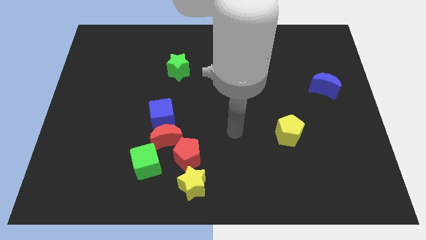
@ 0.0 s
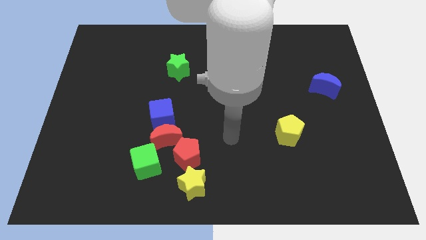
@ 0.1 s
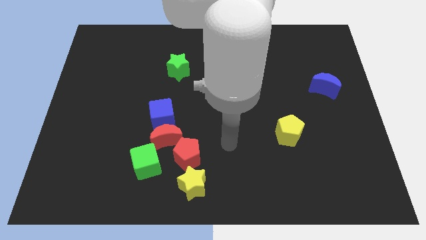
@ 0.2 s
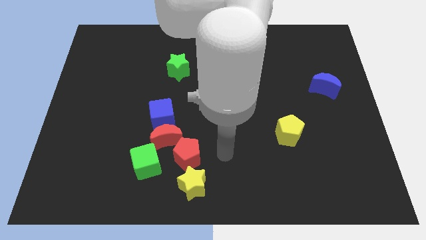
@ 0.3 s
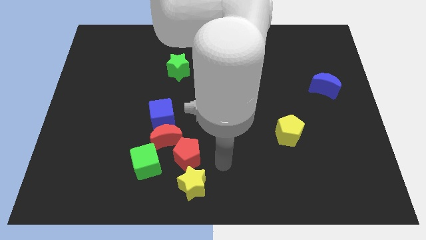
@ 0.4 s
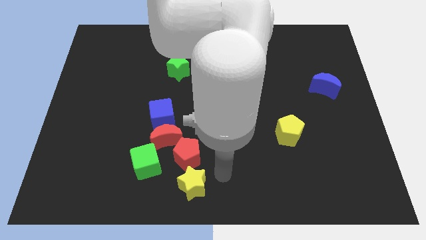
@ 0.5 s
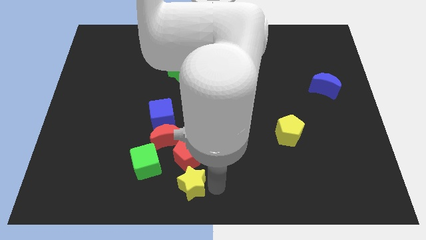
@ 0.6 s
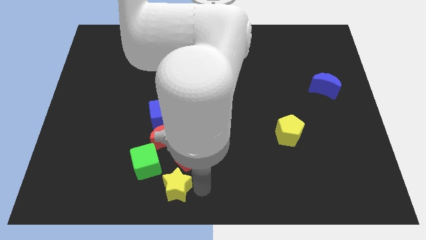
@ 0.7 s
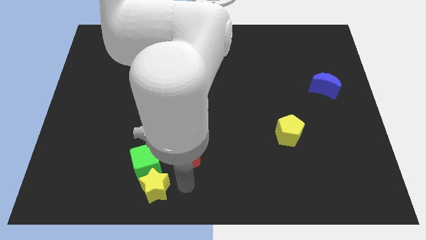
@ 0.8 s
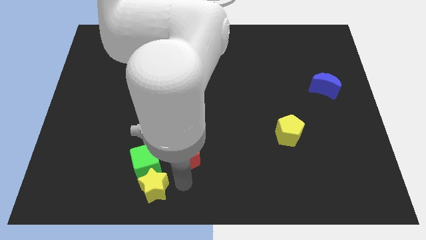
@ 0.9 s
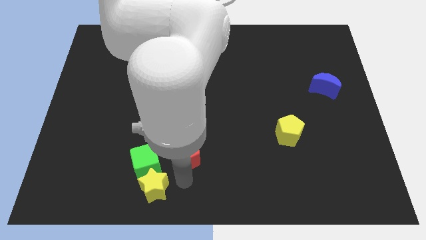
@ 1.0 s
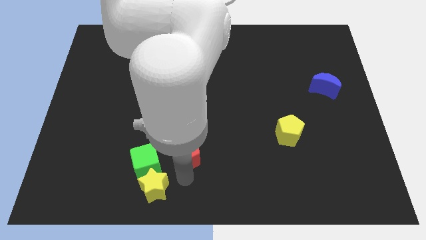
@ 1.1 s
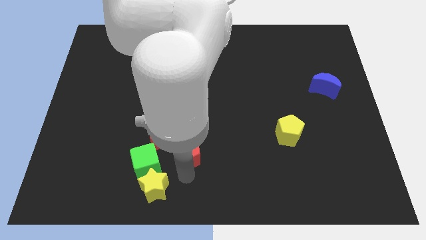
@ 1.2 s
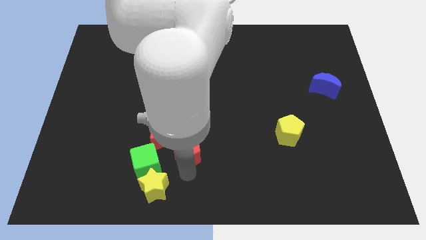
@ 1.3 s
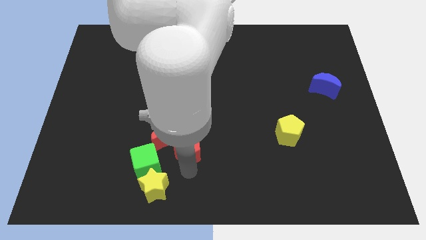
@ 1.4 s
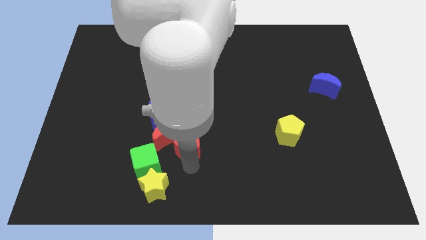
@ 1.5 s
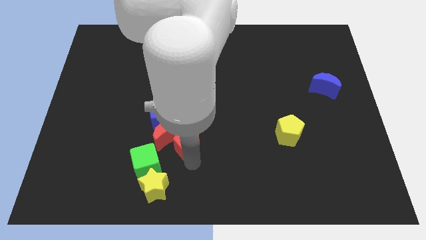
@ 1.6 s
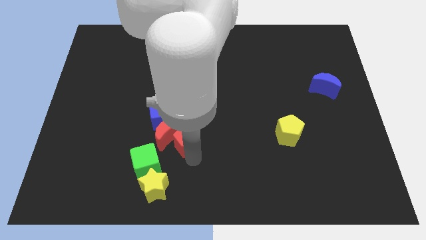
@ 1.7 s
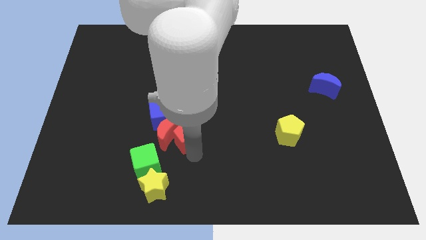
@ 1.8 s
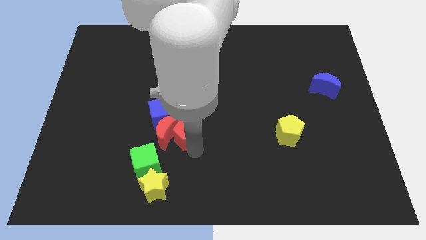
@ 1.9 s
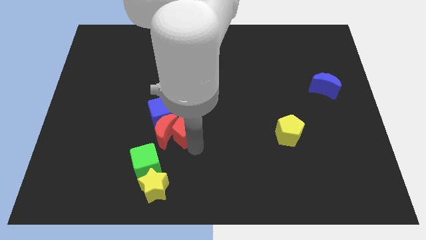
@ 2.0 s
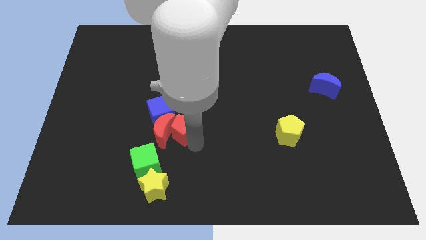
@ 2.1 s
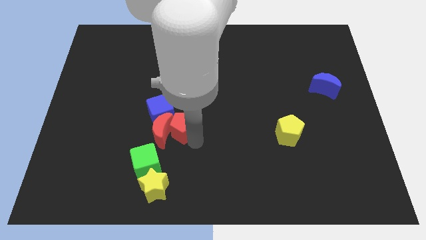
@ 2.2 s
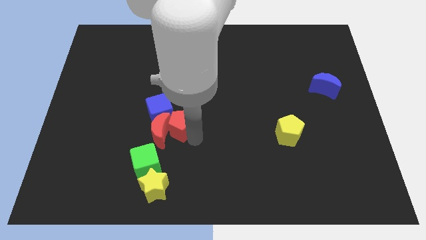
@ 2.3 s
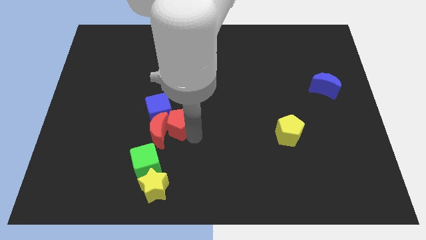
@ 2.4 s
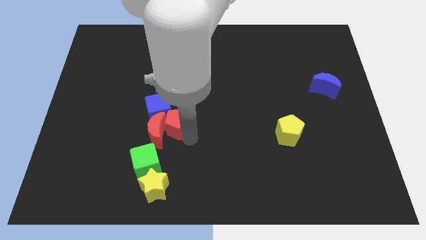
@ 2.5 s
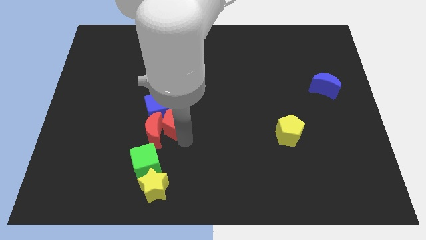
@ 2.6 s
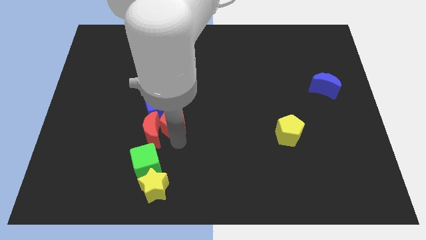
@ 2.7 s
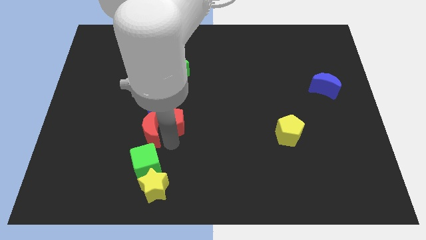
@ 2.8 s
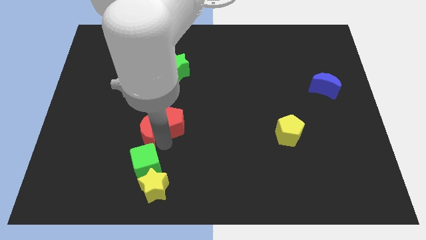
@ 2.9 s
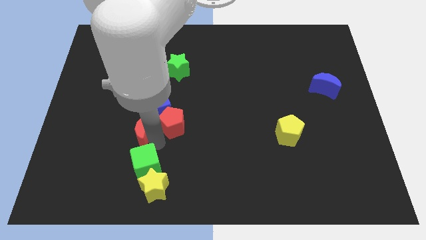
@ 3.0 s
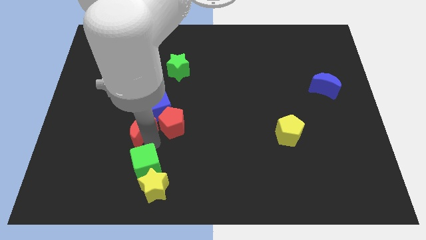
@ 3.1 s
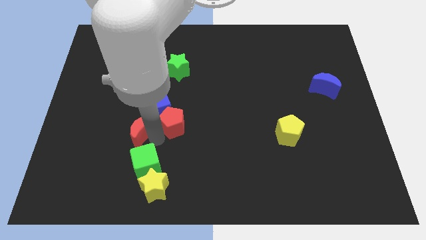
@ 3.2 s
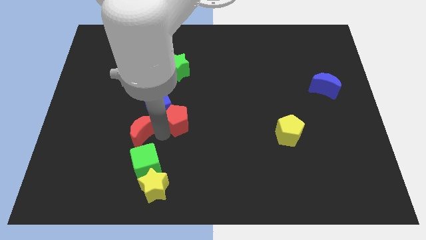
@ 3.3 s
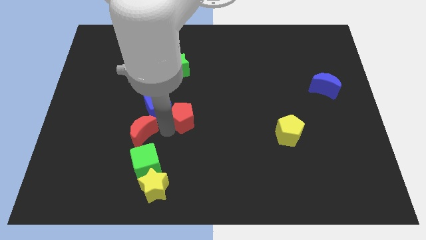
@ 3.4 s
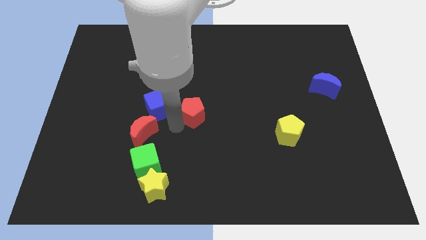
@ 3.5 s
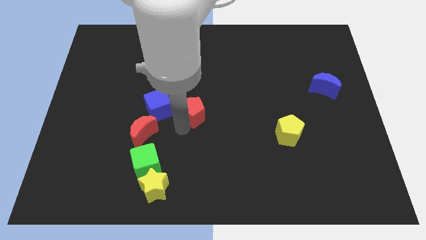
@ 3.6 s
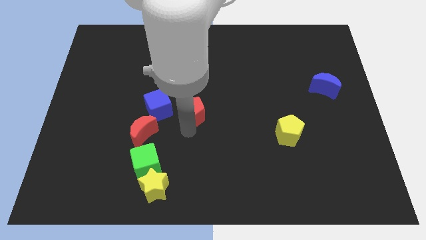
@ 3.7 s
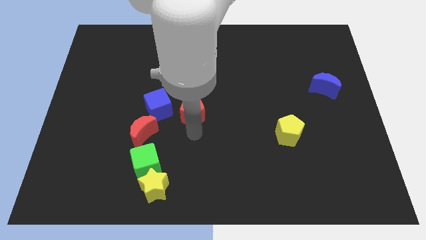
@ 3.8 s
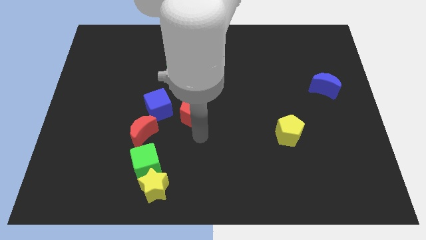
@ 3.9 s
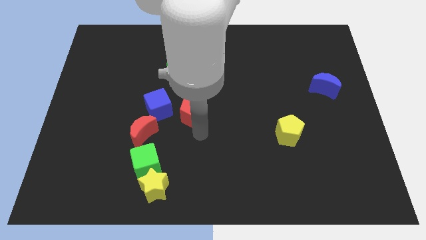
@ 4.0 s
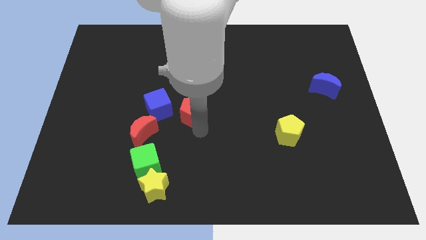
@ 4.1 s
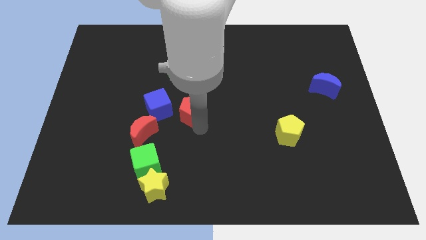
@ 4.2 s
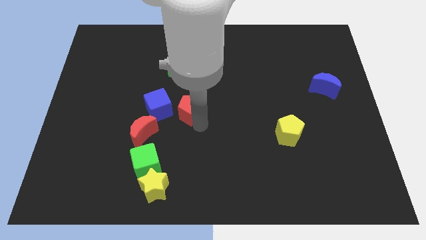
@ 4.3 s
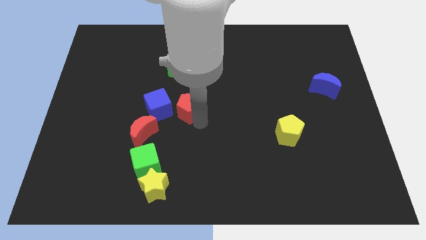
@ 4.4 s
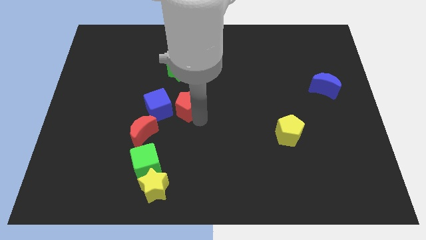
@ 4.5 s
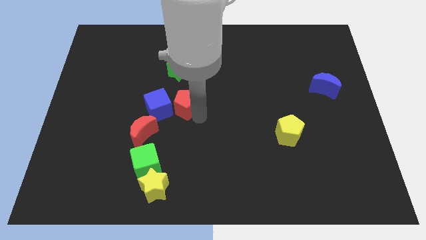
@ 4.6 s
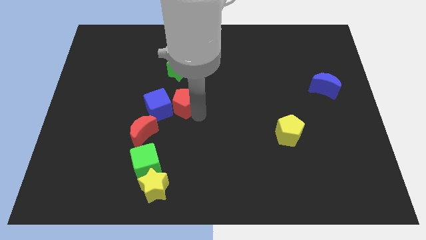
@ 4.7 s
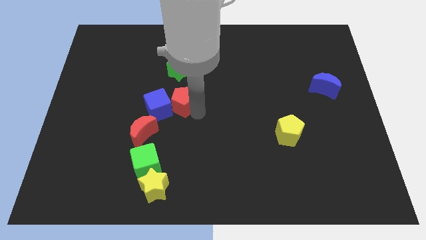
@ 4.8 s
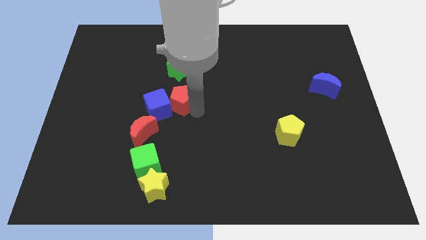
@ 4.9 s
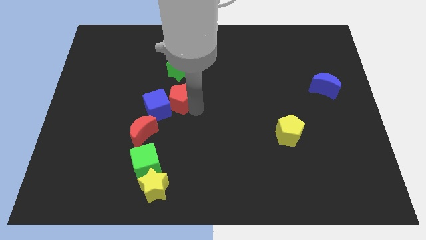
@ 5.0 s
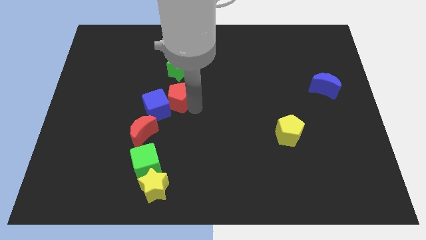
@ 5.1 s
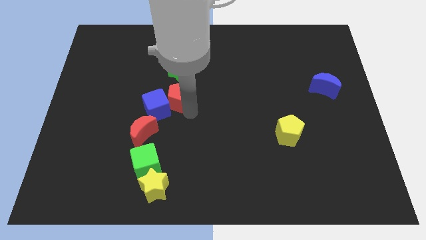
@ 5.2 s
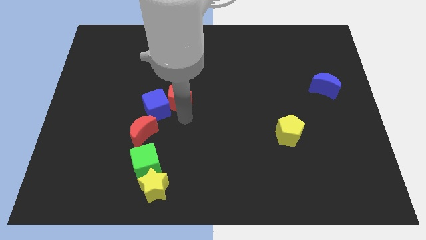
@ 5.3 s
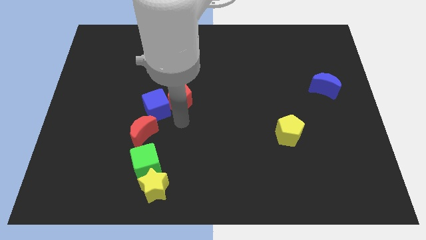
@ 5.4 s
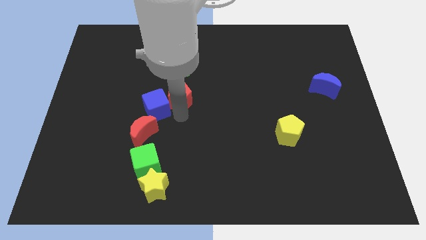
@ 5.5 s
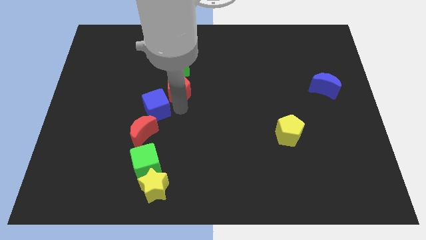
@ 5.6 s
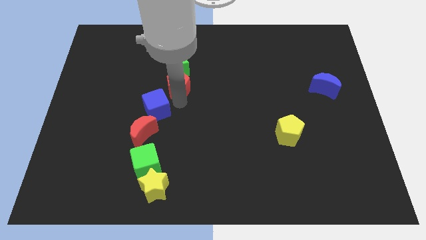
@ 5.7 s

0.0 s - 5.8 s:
slide the red pentagon next to the green star

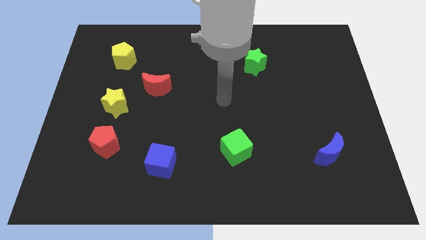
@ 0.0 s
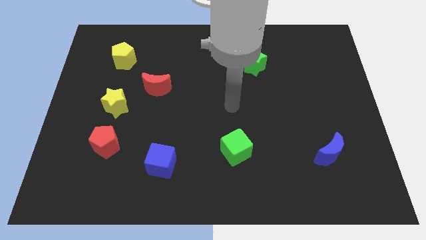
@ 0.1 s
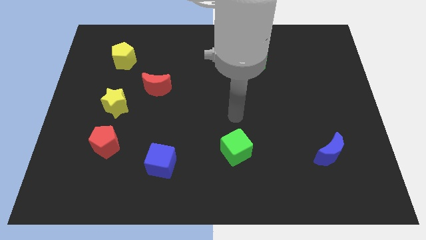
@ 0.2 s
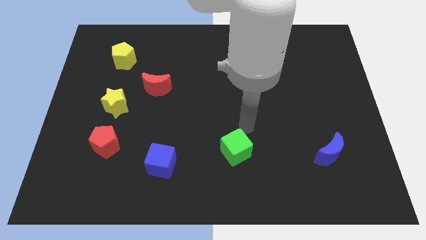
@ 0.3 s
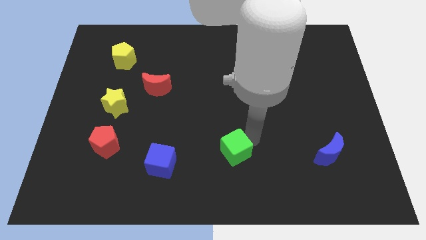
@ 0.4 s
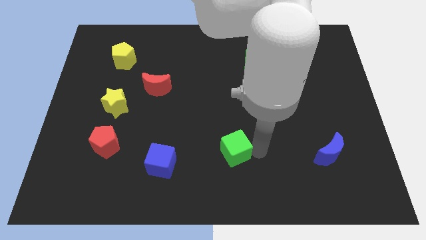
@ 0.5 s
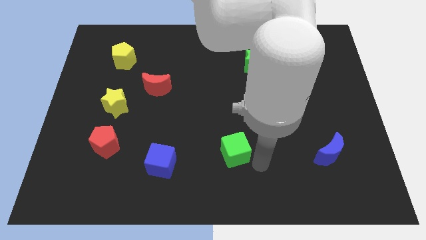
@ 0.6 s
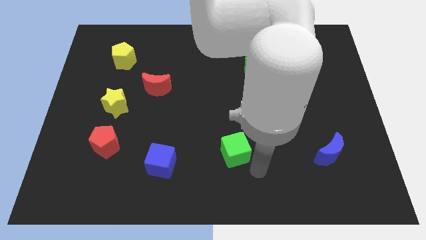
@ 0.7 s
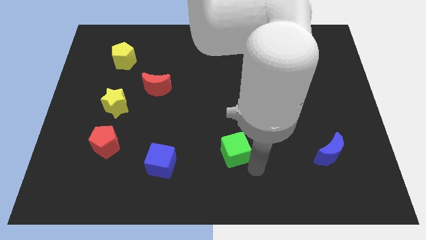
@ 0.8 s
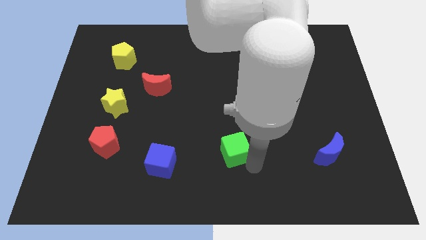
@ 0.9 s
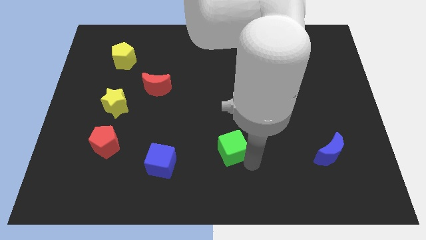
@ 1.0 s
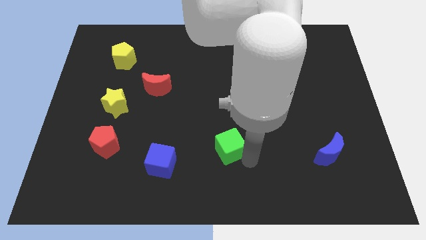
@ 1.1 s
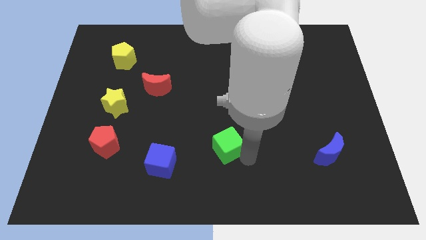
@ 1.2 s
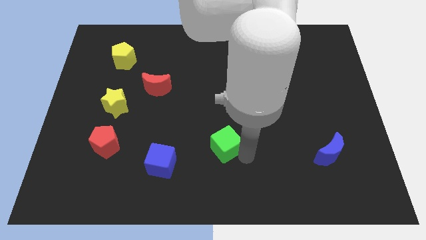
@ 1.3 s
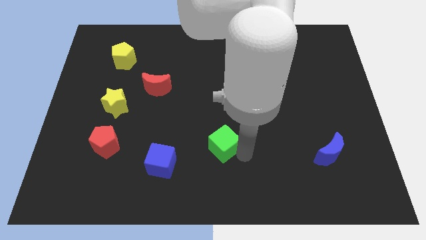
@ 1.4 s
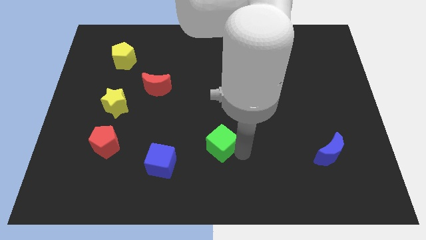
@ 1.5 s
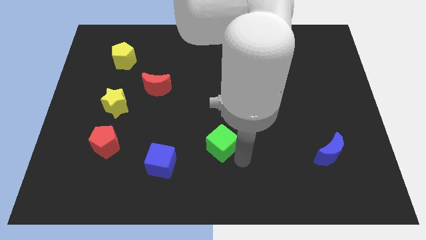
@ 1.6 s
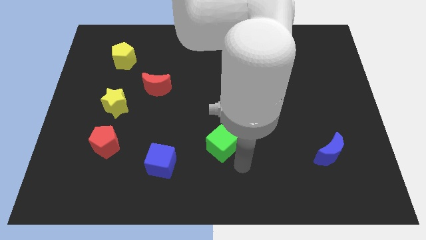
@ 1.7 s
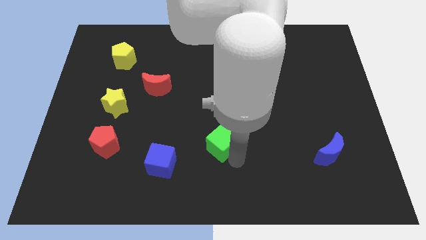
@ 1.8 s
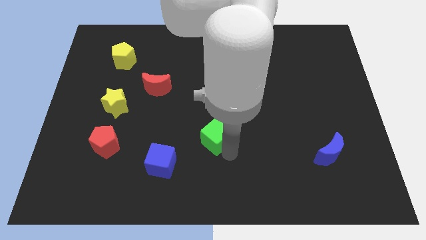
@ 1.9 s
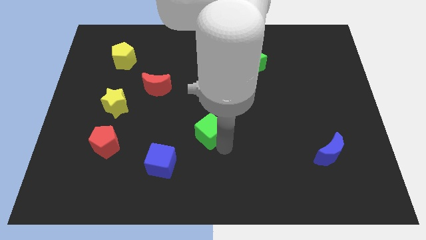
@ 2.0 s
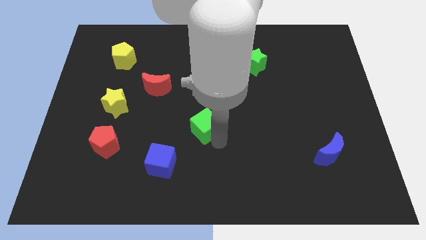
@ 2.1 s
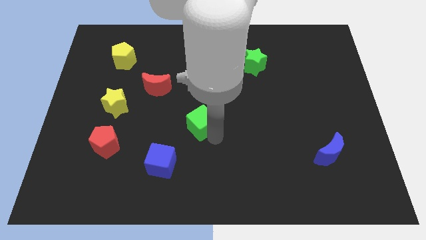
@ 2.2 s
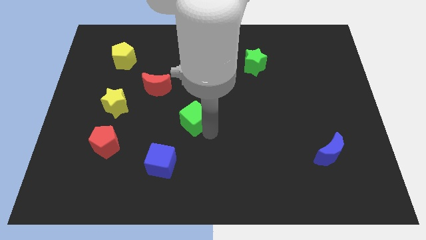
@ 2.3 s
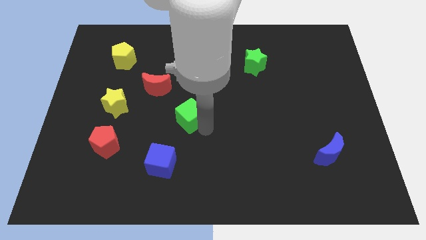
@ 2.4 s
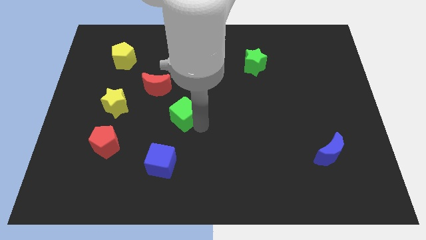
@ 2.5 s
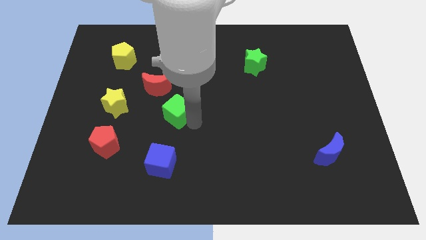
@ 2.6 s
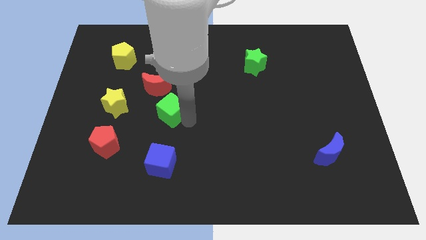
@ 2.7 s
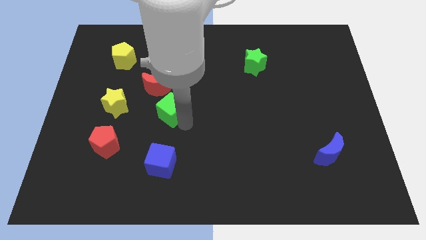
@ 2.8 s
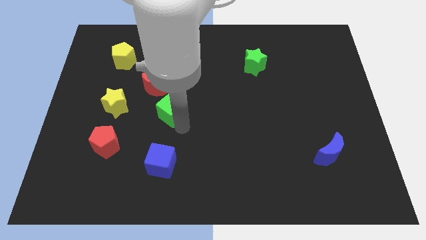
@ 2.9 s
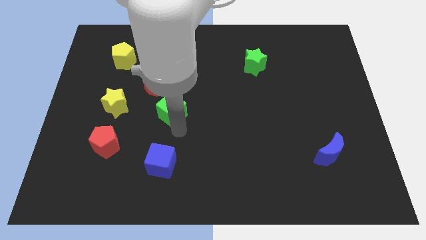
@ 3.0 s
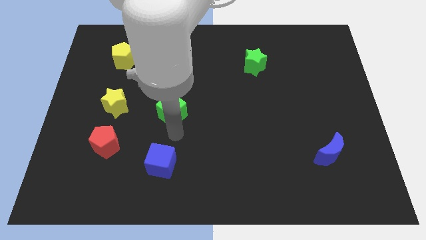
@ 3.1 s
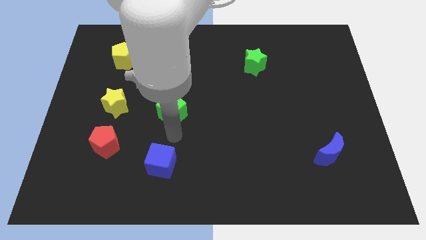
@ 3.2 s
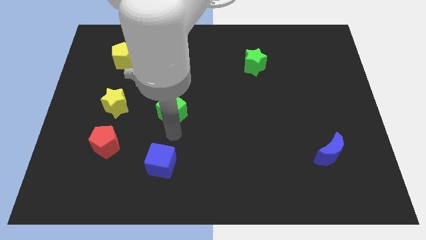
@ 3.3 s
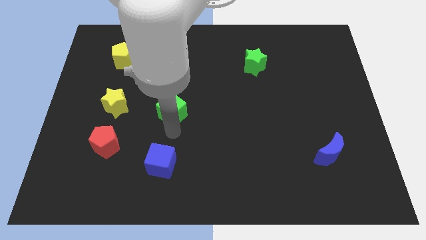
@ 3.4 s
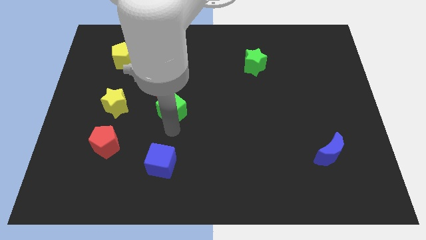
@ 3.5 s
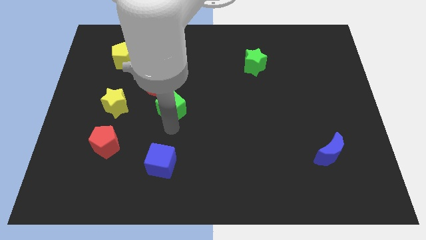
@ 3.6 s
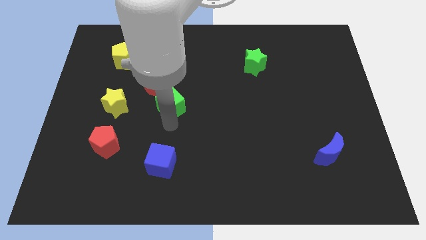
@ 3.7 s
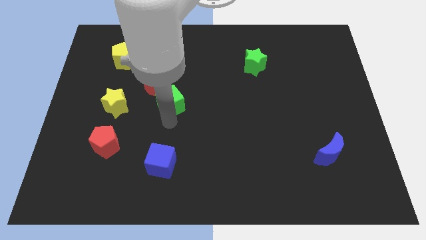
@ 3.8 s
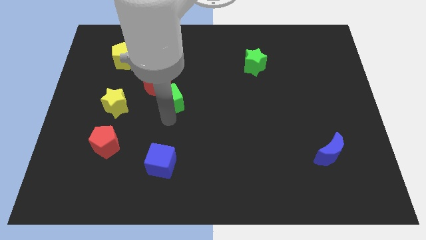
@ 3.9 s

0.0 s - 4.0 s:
move the green cube towards the red moon
